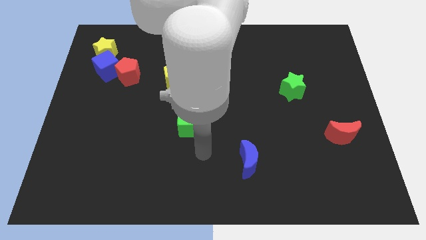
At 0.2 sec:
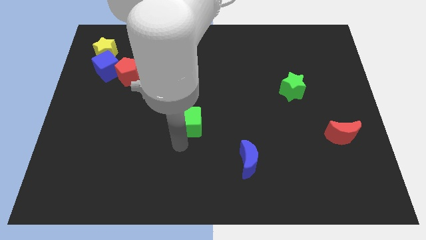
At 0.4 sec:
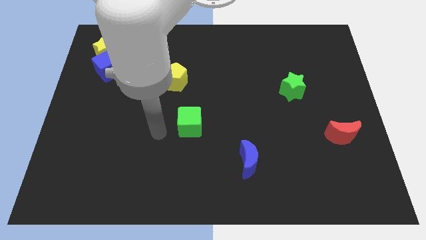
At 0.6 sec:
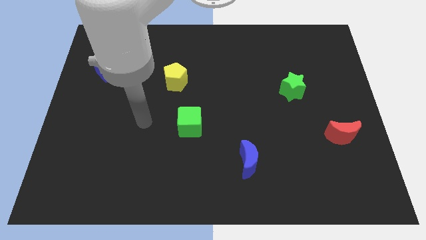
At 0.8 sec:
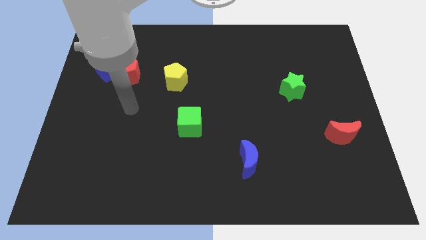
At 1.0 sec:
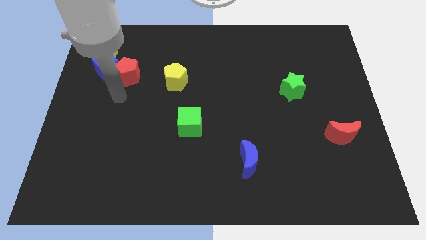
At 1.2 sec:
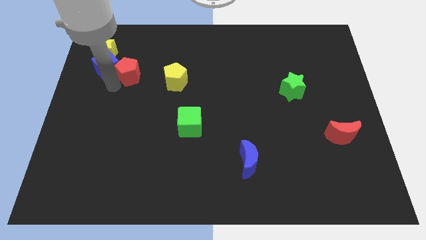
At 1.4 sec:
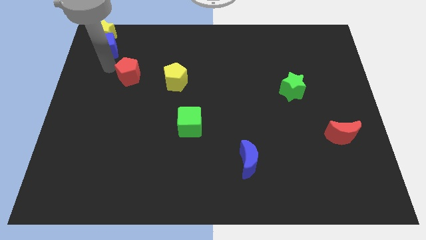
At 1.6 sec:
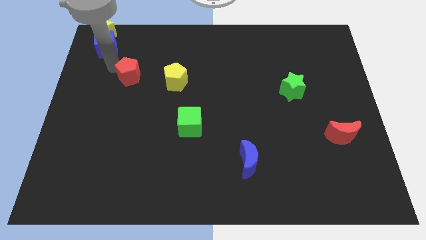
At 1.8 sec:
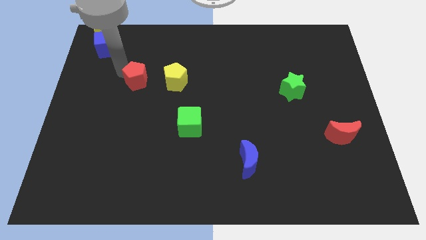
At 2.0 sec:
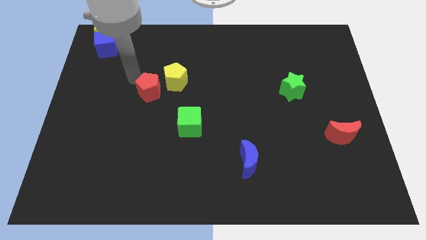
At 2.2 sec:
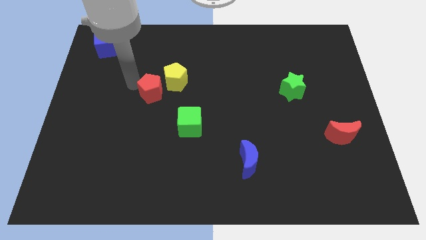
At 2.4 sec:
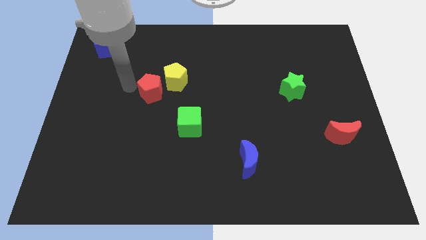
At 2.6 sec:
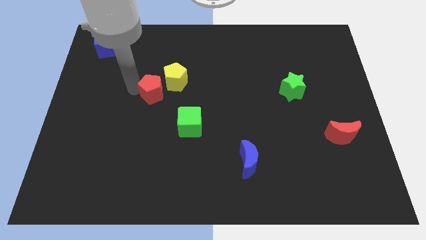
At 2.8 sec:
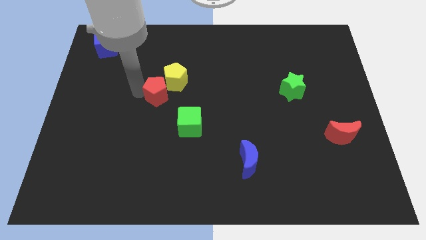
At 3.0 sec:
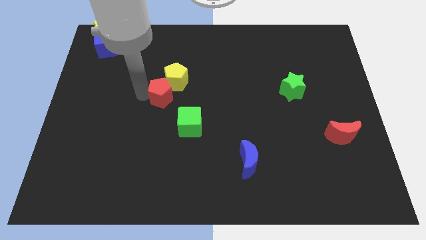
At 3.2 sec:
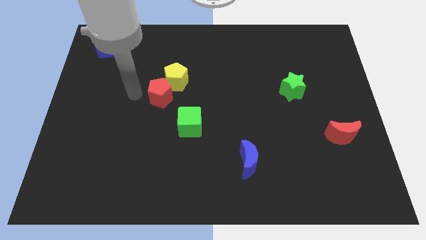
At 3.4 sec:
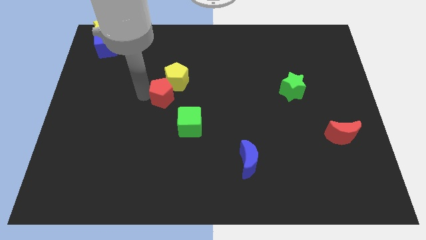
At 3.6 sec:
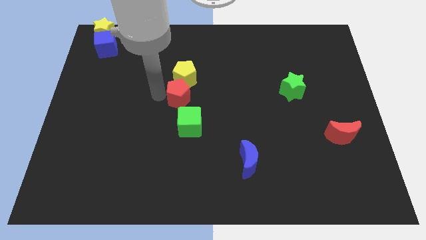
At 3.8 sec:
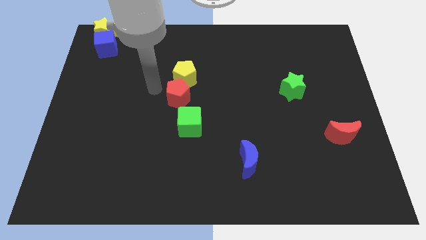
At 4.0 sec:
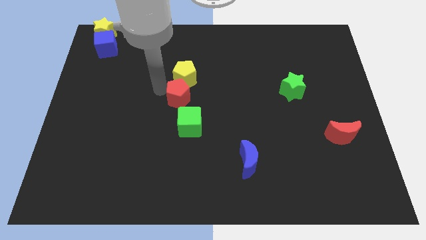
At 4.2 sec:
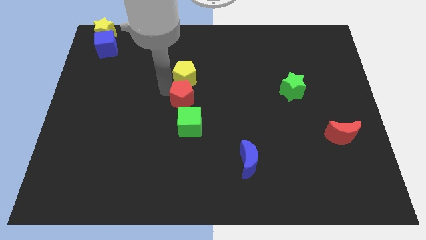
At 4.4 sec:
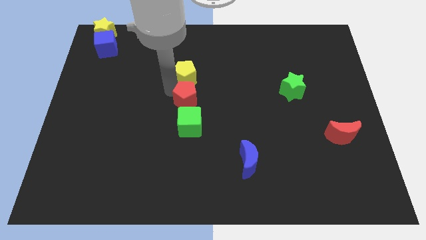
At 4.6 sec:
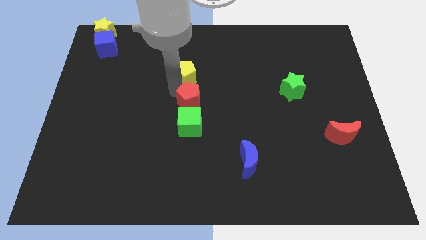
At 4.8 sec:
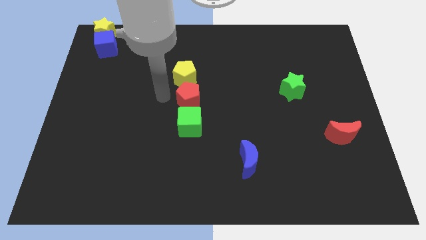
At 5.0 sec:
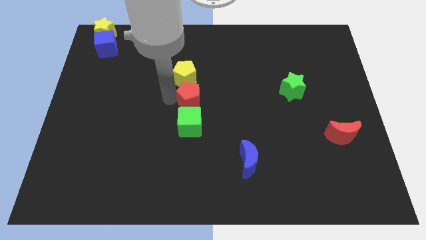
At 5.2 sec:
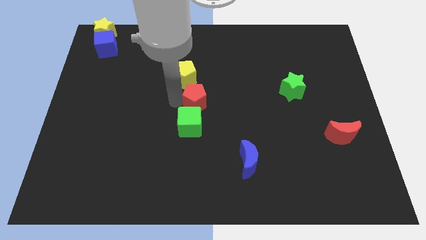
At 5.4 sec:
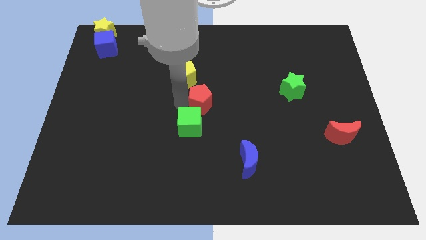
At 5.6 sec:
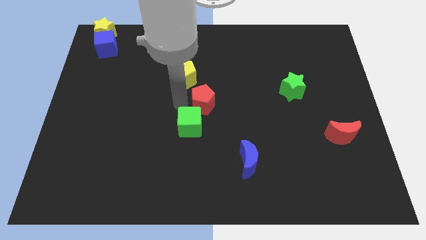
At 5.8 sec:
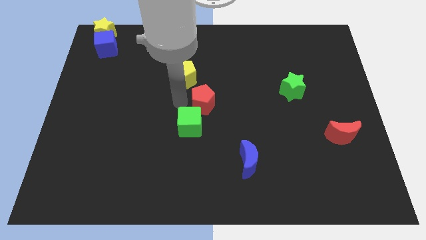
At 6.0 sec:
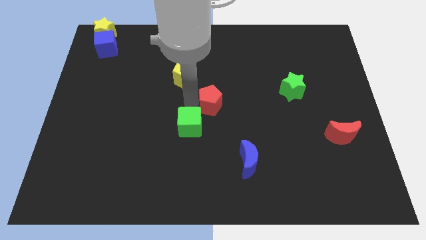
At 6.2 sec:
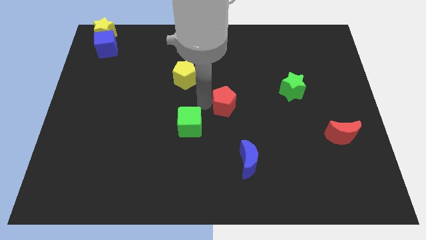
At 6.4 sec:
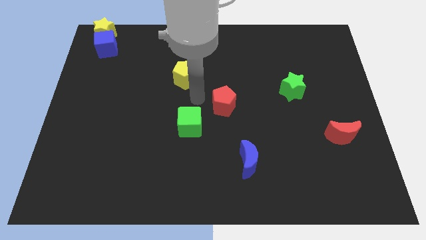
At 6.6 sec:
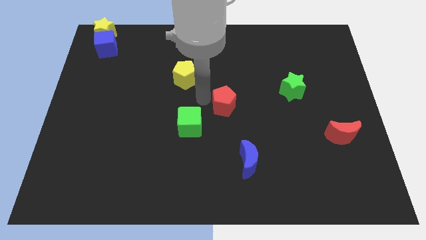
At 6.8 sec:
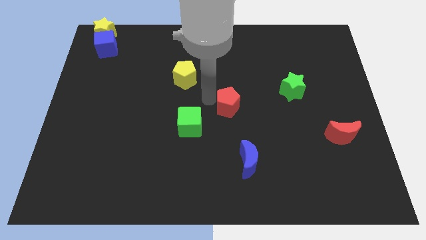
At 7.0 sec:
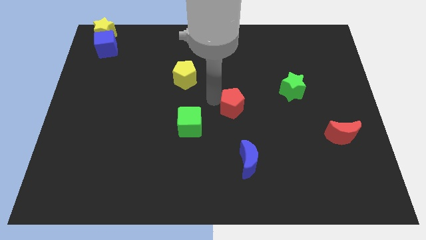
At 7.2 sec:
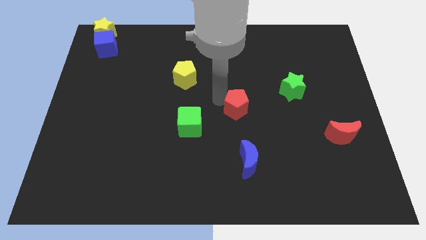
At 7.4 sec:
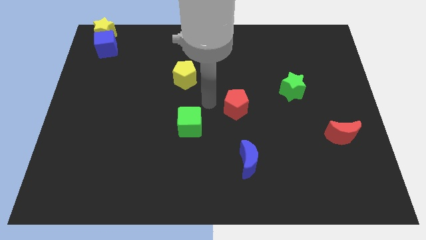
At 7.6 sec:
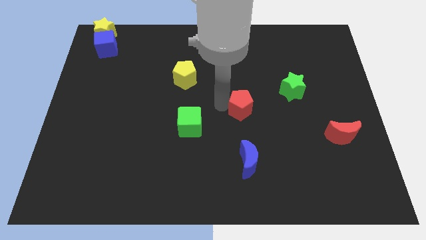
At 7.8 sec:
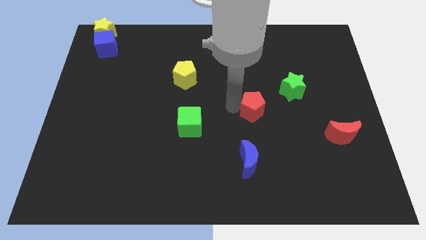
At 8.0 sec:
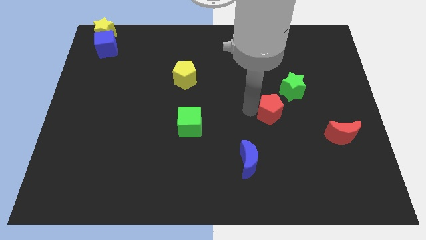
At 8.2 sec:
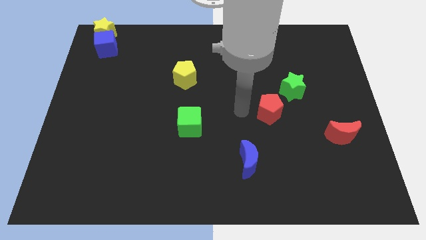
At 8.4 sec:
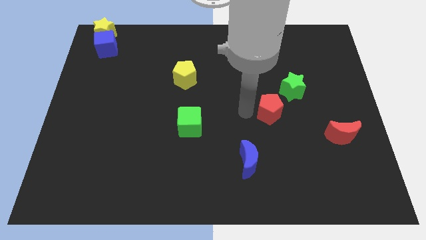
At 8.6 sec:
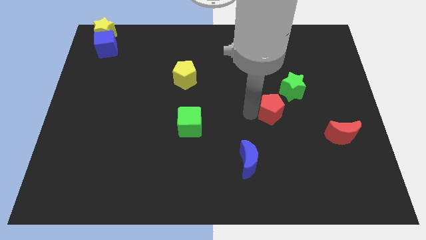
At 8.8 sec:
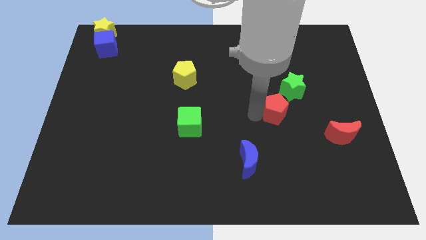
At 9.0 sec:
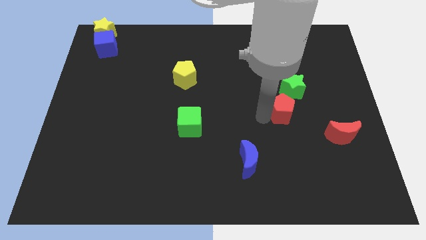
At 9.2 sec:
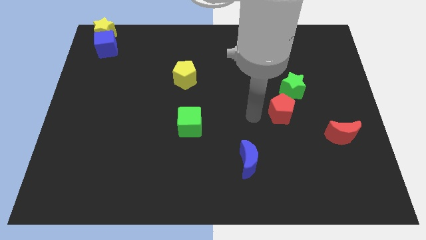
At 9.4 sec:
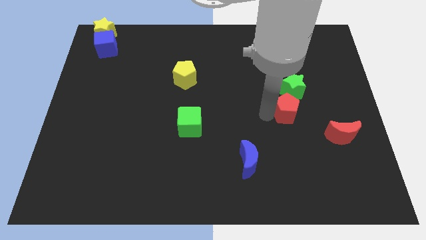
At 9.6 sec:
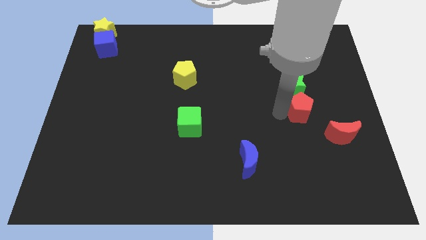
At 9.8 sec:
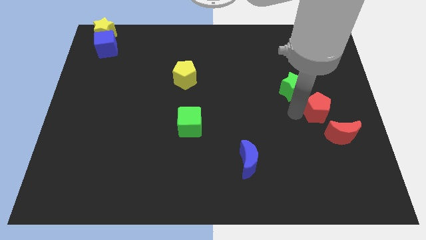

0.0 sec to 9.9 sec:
move the red pentagon to the top side of the red moon

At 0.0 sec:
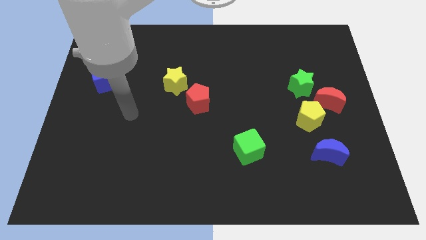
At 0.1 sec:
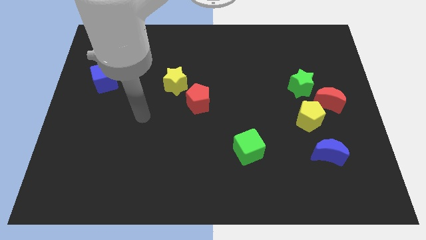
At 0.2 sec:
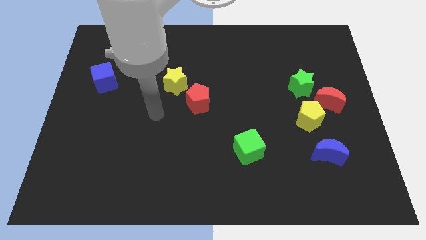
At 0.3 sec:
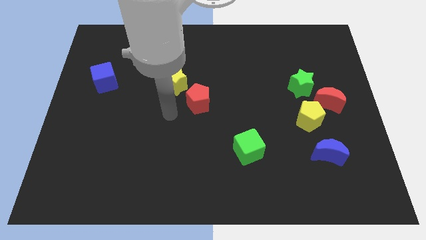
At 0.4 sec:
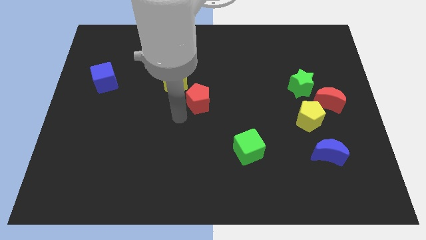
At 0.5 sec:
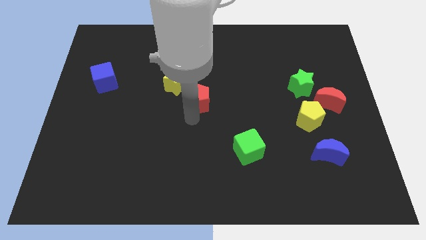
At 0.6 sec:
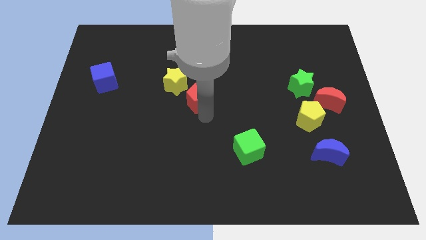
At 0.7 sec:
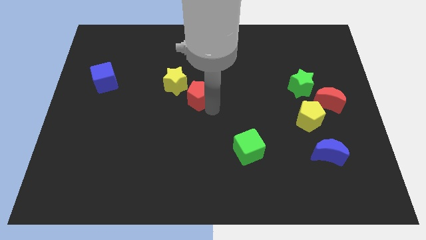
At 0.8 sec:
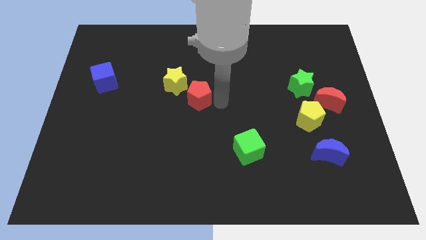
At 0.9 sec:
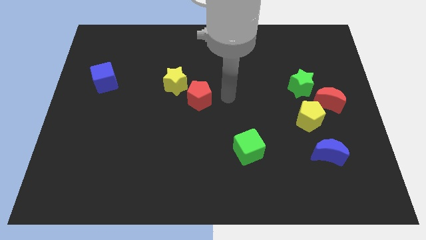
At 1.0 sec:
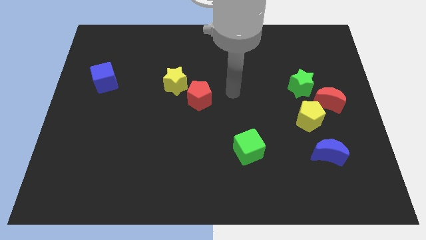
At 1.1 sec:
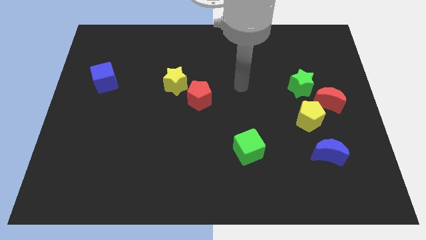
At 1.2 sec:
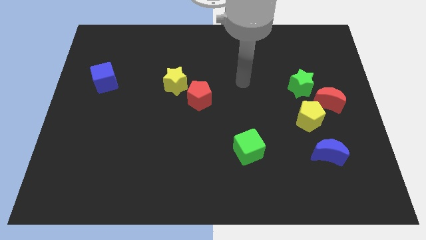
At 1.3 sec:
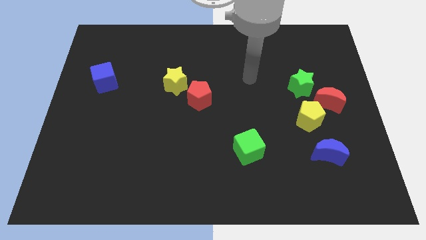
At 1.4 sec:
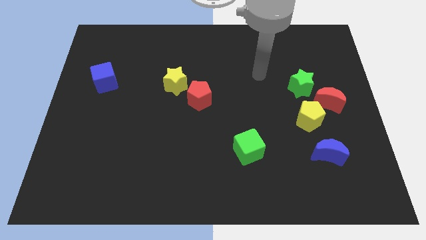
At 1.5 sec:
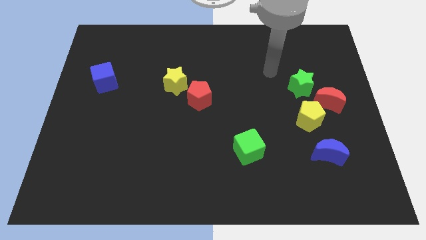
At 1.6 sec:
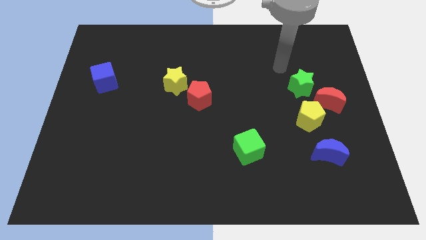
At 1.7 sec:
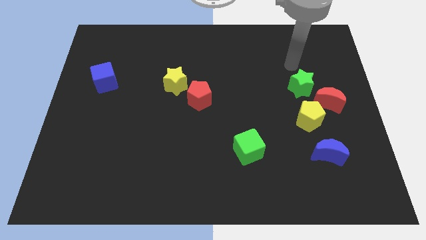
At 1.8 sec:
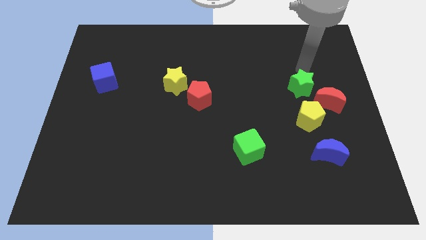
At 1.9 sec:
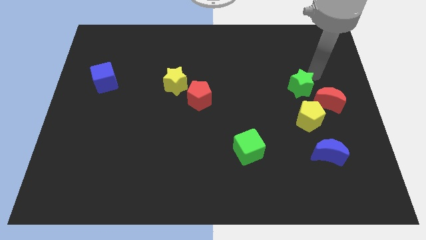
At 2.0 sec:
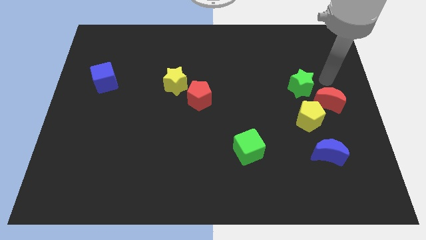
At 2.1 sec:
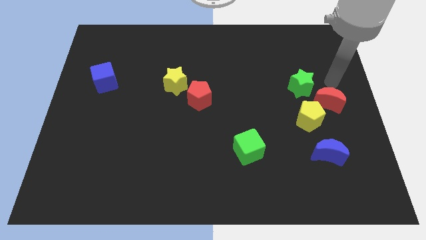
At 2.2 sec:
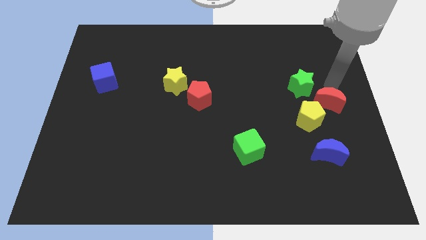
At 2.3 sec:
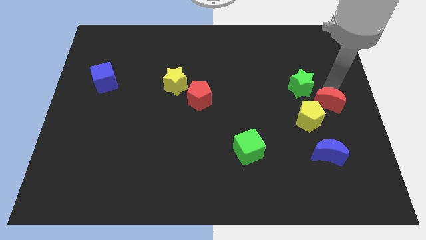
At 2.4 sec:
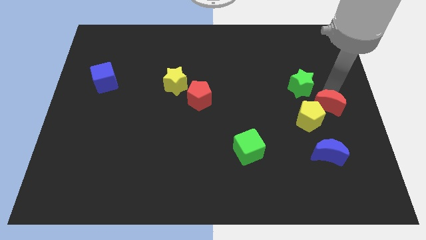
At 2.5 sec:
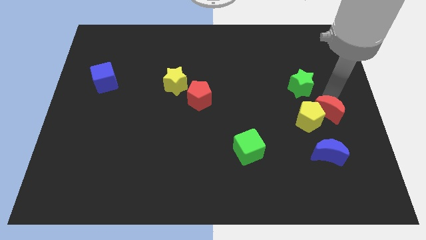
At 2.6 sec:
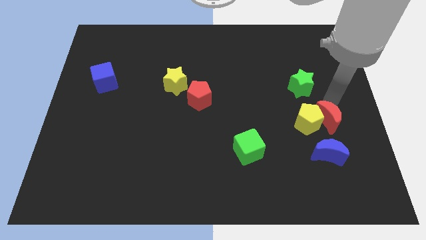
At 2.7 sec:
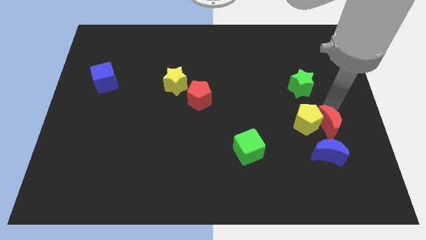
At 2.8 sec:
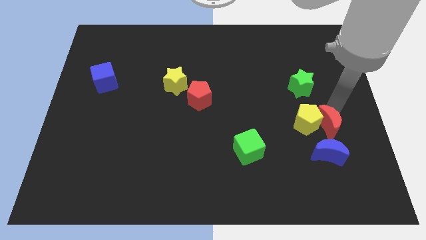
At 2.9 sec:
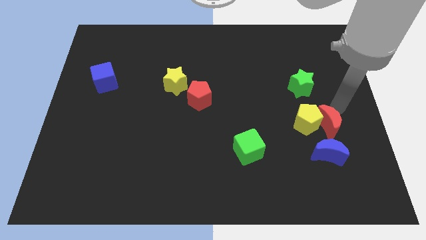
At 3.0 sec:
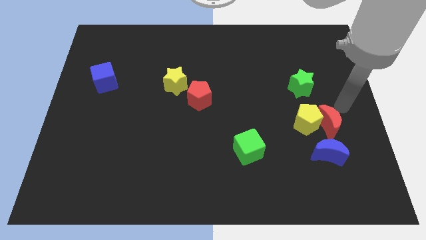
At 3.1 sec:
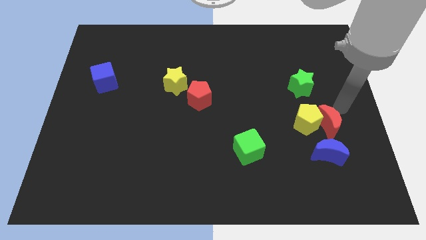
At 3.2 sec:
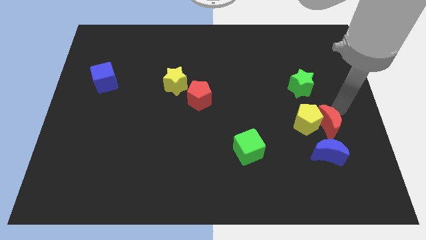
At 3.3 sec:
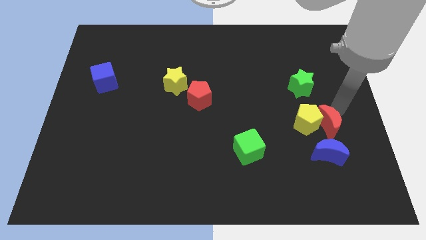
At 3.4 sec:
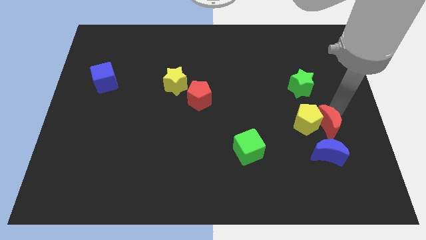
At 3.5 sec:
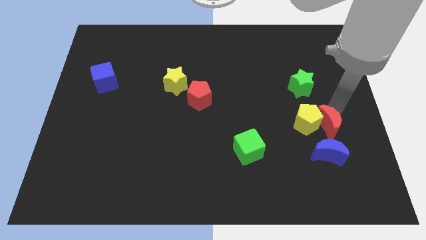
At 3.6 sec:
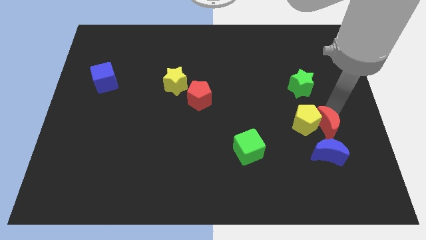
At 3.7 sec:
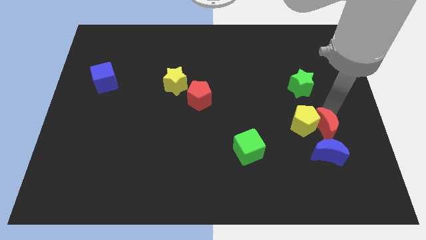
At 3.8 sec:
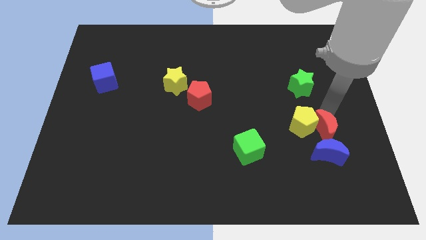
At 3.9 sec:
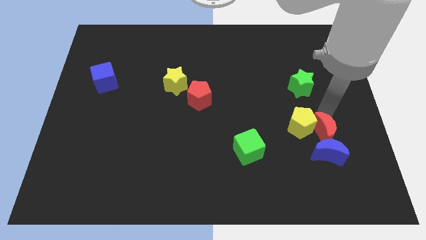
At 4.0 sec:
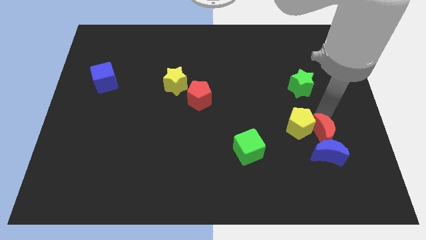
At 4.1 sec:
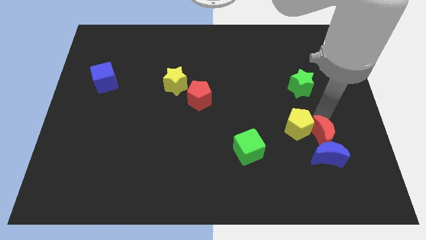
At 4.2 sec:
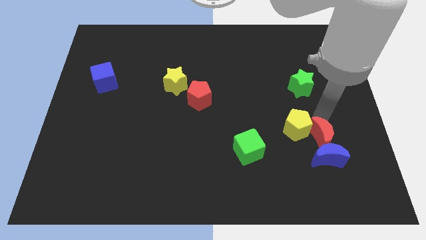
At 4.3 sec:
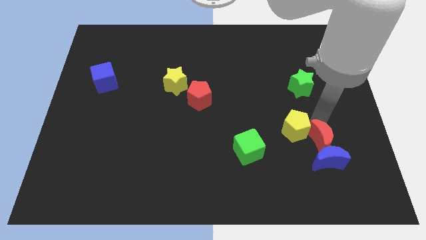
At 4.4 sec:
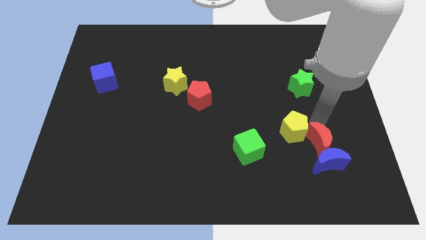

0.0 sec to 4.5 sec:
slide the red moon to the right of the green cube
